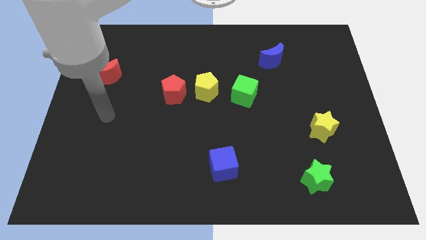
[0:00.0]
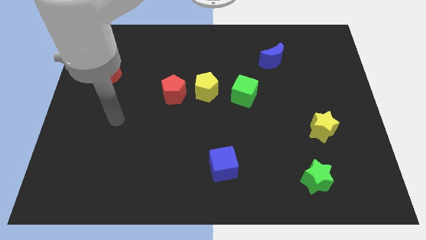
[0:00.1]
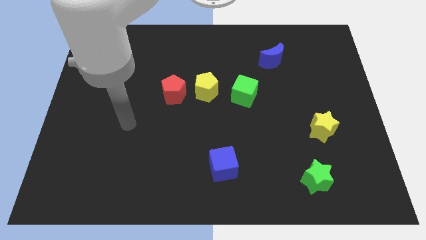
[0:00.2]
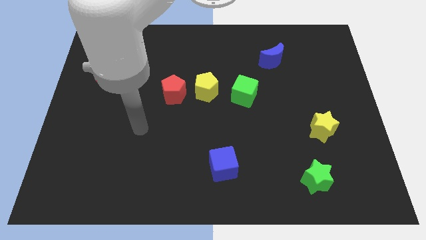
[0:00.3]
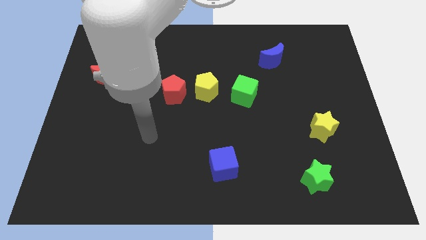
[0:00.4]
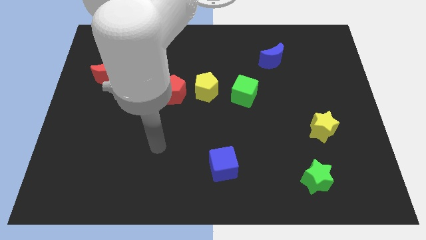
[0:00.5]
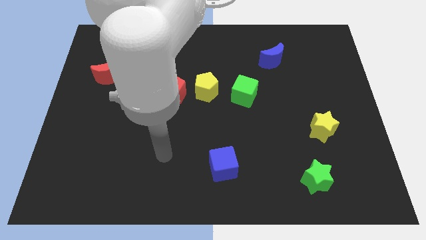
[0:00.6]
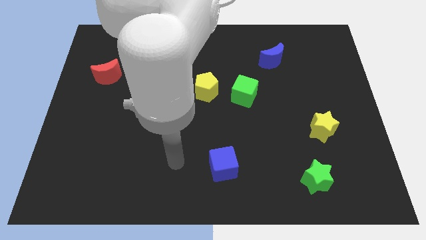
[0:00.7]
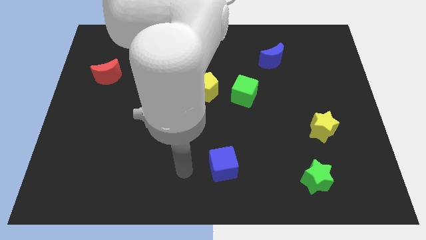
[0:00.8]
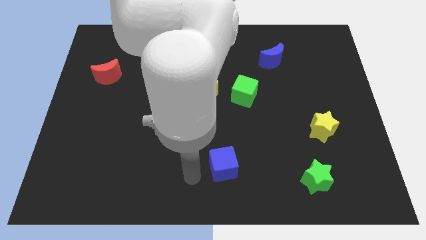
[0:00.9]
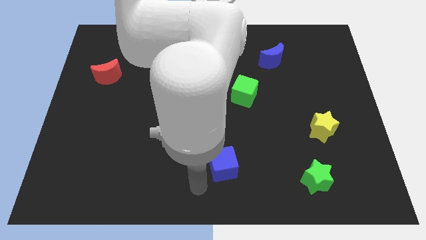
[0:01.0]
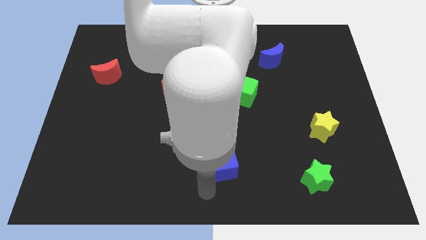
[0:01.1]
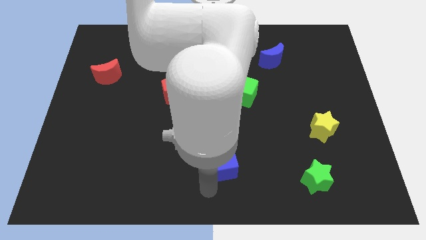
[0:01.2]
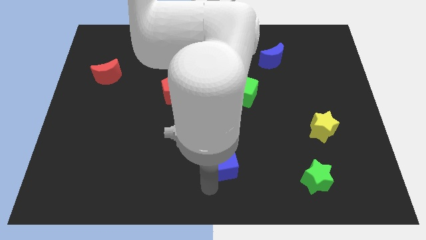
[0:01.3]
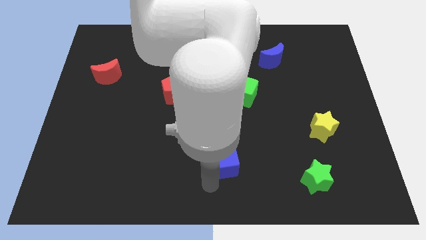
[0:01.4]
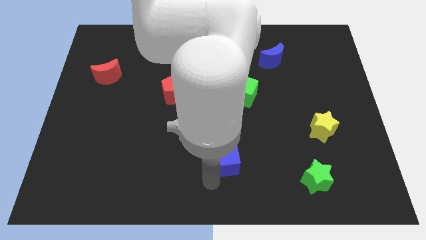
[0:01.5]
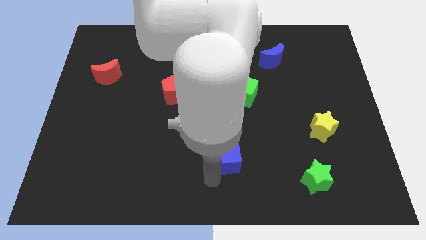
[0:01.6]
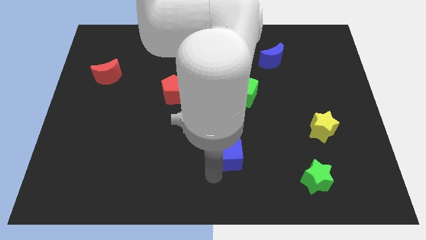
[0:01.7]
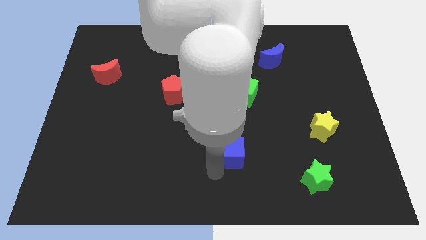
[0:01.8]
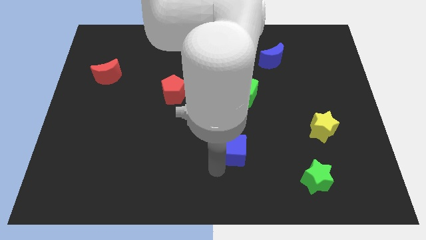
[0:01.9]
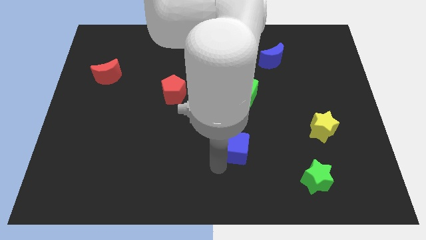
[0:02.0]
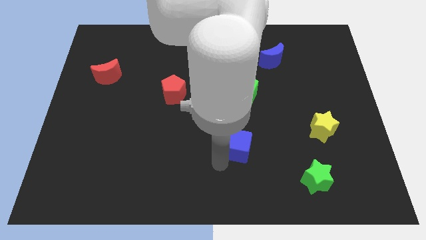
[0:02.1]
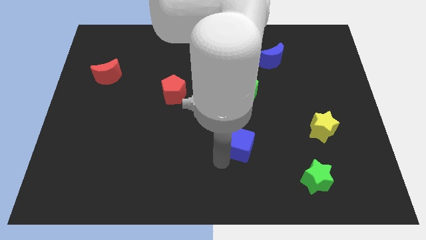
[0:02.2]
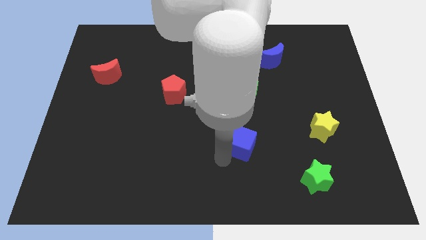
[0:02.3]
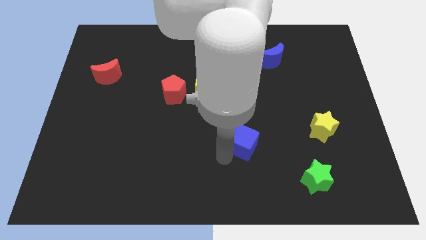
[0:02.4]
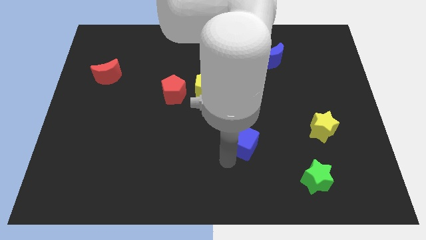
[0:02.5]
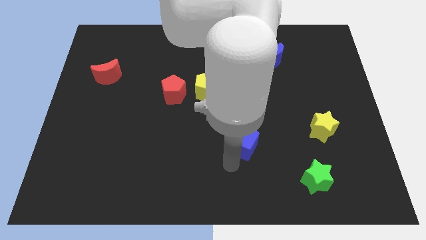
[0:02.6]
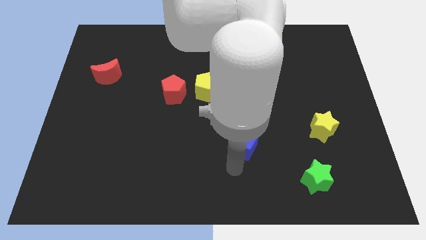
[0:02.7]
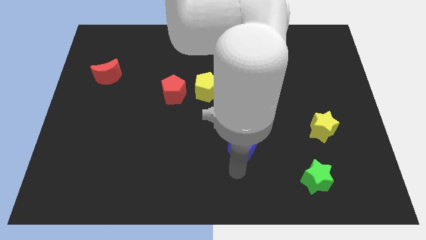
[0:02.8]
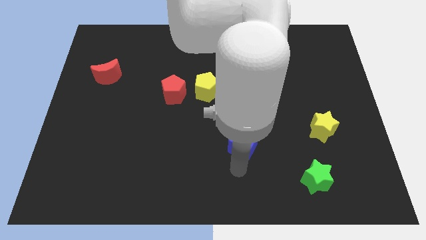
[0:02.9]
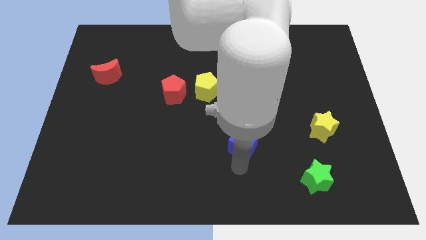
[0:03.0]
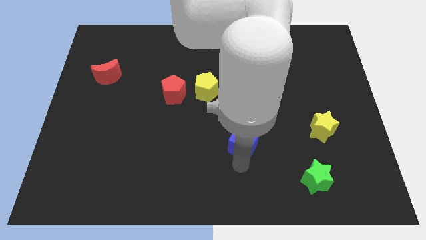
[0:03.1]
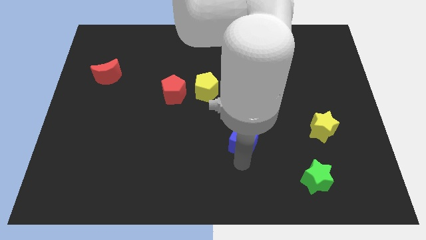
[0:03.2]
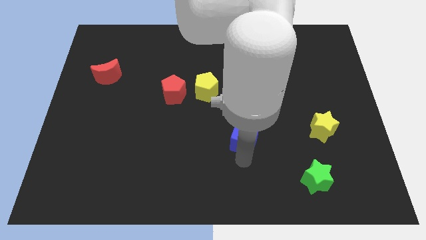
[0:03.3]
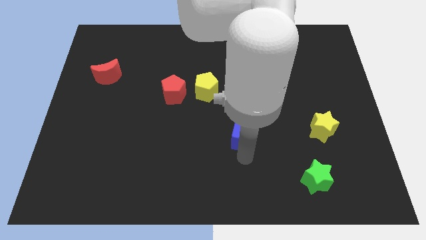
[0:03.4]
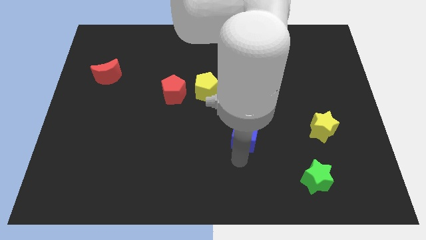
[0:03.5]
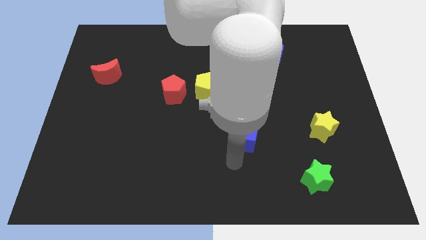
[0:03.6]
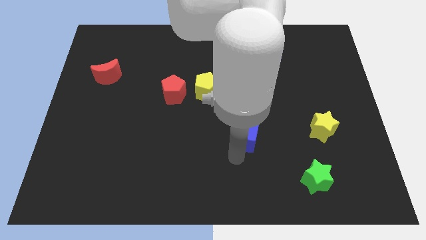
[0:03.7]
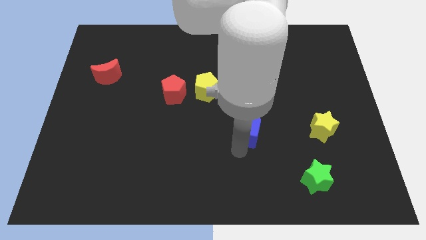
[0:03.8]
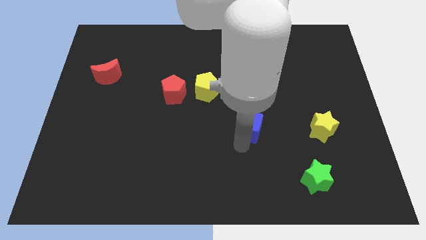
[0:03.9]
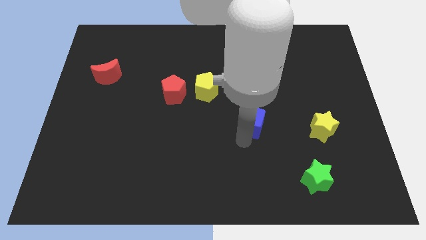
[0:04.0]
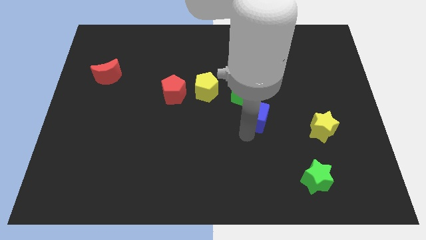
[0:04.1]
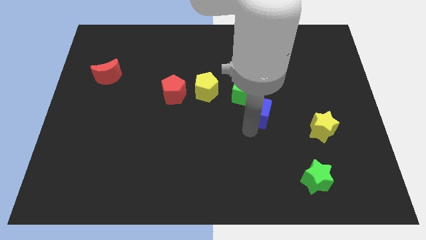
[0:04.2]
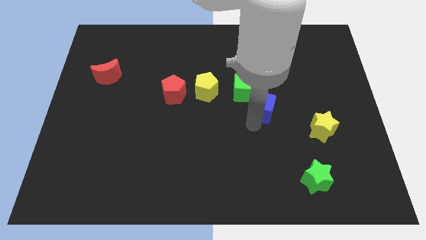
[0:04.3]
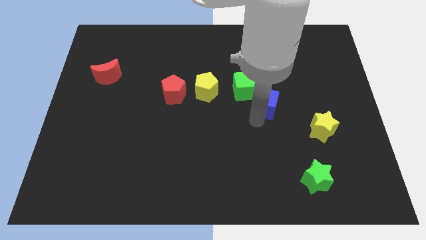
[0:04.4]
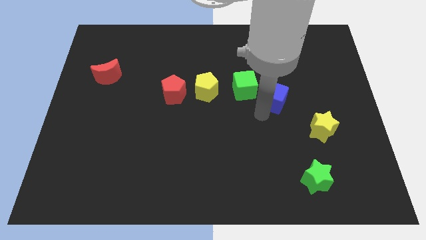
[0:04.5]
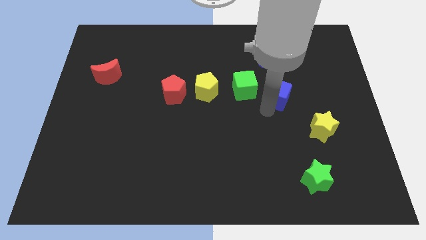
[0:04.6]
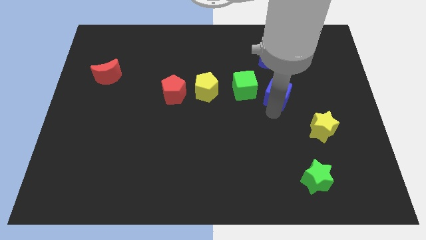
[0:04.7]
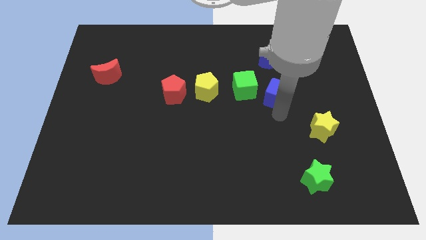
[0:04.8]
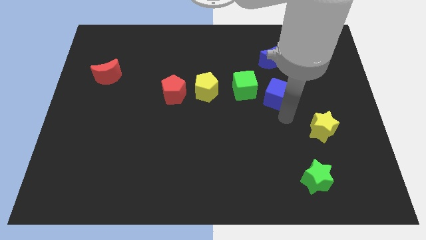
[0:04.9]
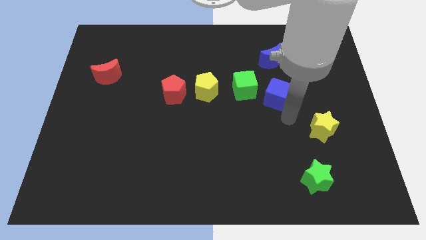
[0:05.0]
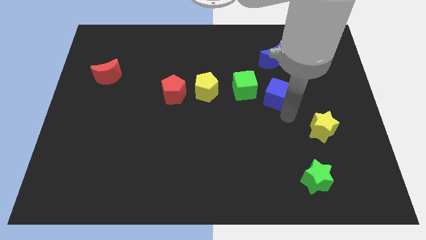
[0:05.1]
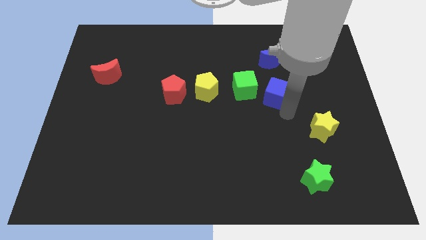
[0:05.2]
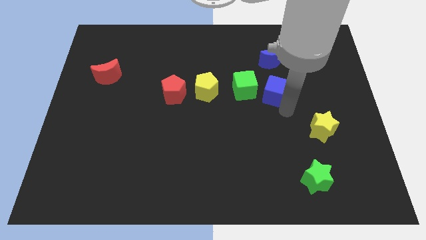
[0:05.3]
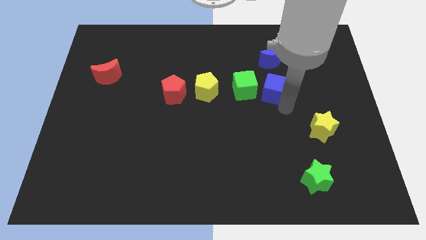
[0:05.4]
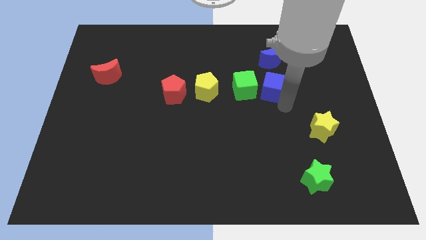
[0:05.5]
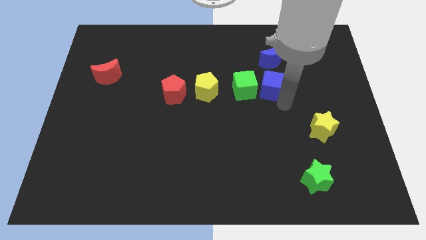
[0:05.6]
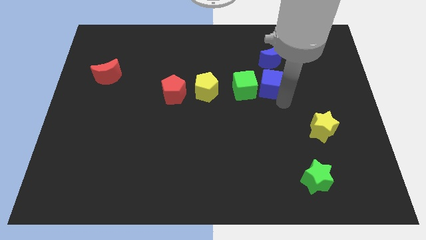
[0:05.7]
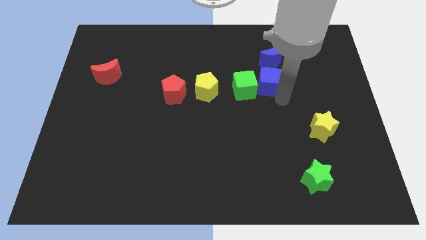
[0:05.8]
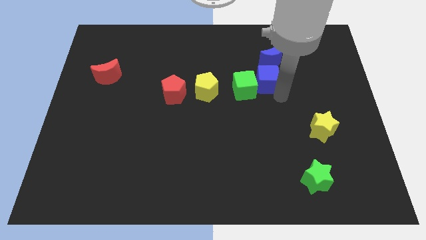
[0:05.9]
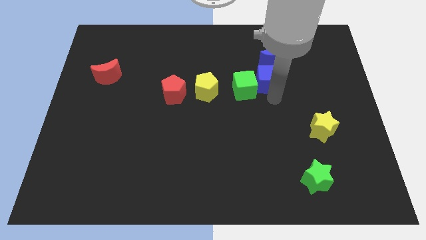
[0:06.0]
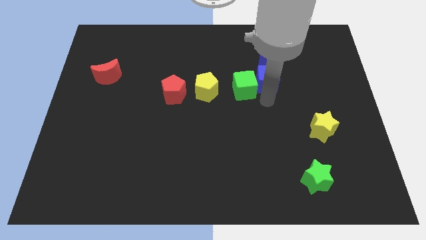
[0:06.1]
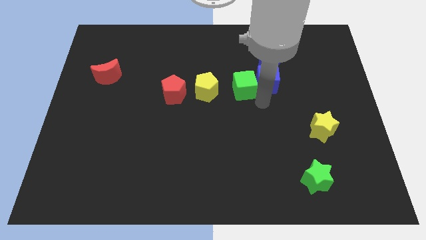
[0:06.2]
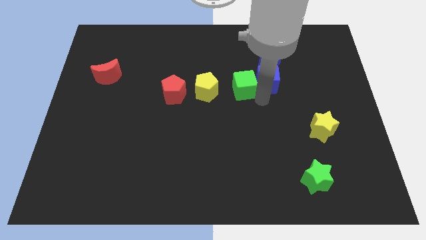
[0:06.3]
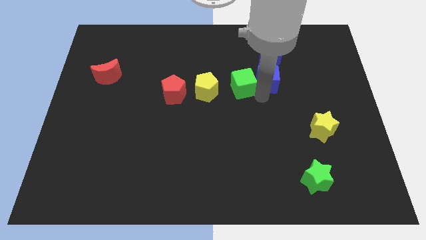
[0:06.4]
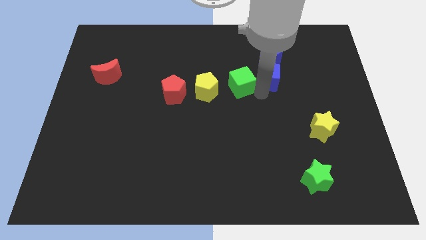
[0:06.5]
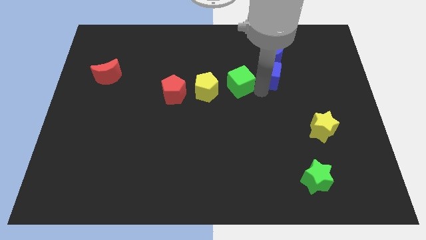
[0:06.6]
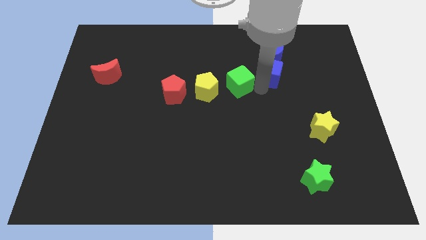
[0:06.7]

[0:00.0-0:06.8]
put the blue cube close to the blue moon

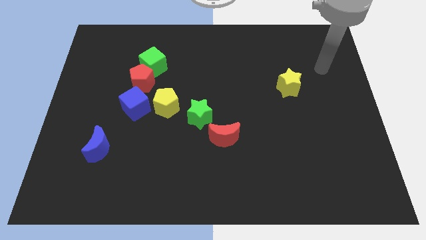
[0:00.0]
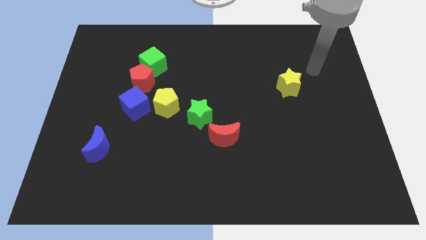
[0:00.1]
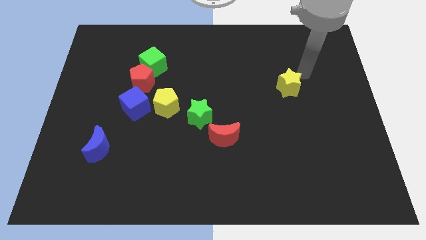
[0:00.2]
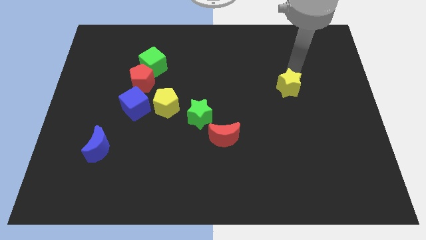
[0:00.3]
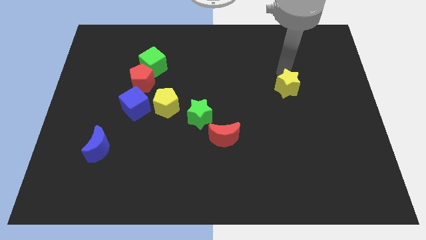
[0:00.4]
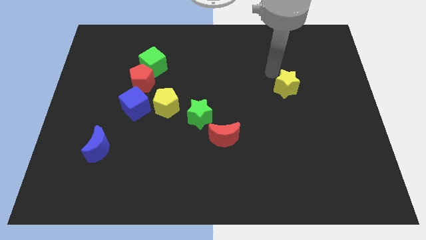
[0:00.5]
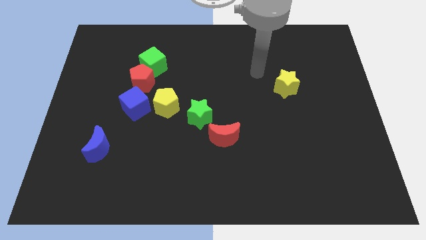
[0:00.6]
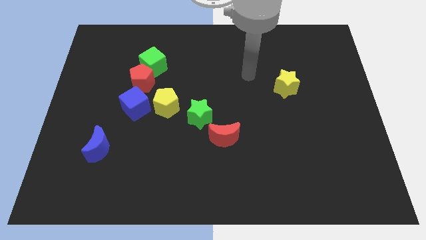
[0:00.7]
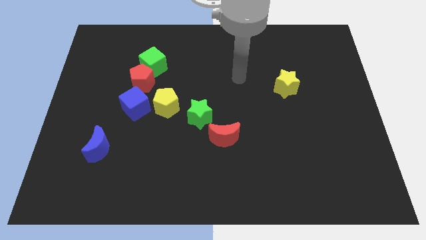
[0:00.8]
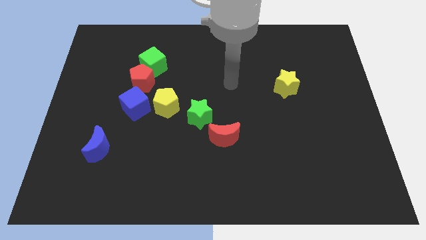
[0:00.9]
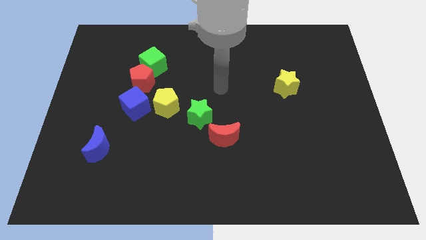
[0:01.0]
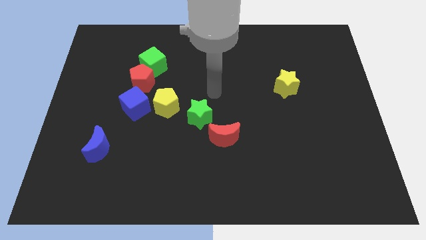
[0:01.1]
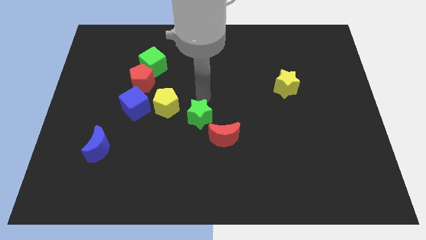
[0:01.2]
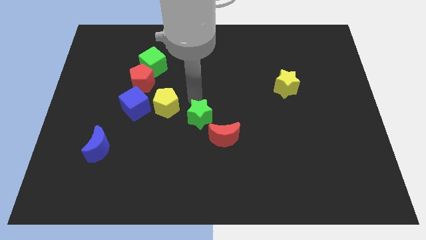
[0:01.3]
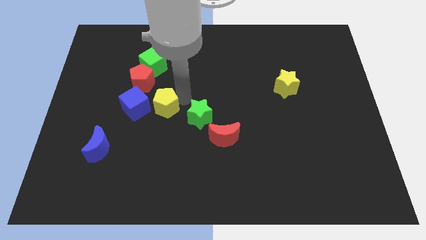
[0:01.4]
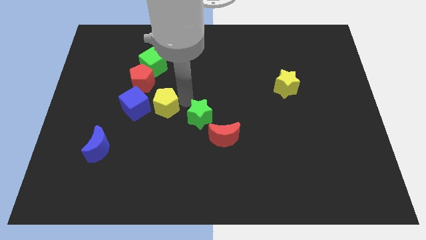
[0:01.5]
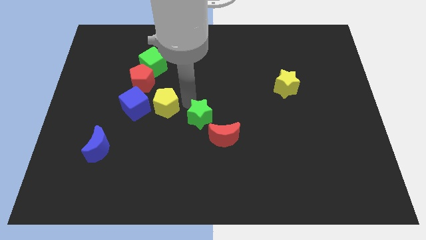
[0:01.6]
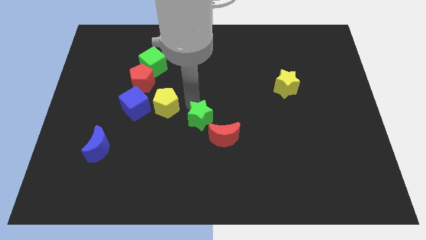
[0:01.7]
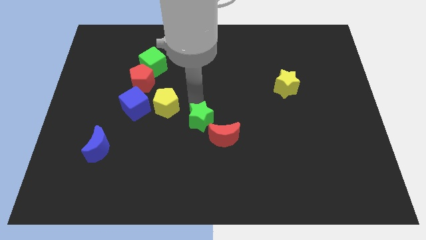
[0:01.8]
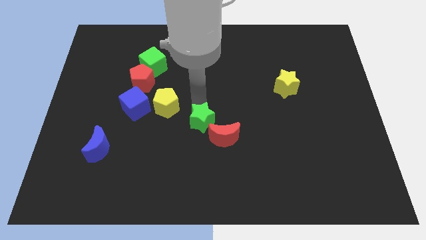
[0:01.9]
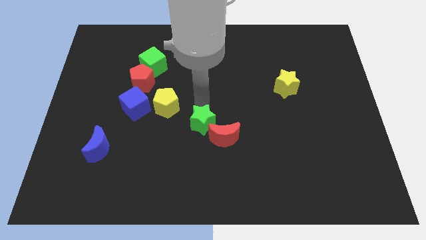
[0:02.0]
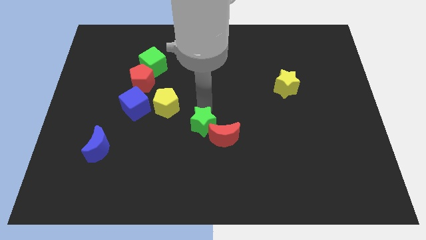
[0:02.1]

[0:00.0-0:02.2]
push the green star to the red moon
